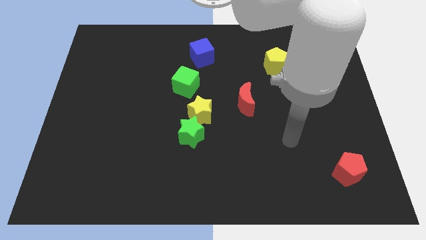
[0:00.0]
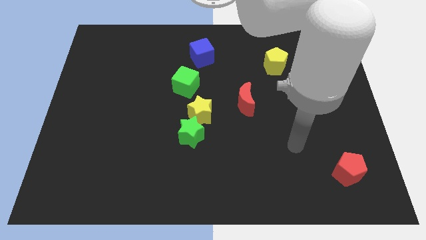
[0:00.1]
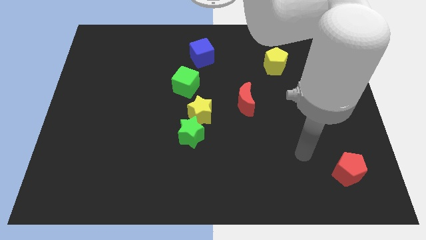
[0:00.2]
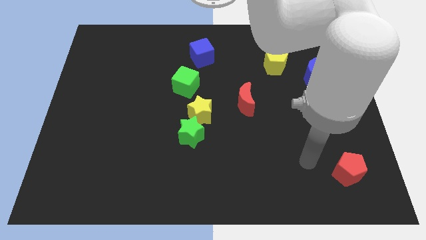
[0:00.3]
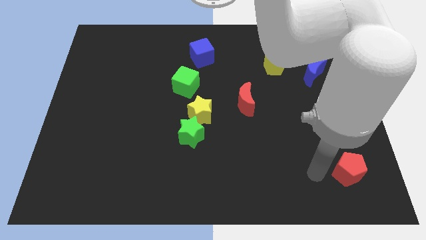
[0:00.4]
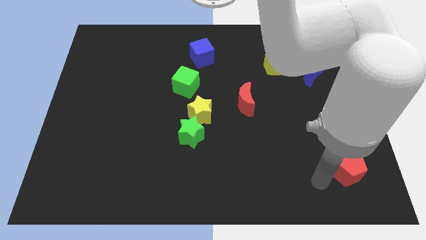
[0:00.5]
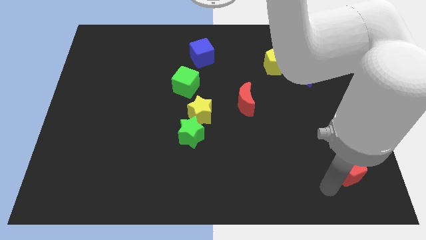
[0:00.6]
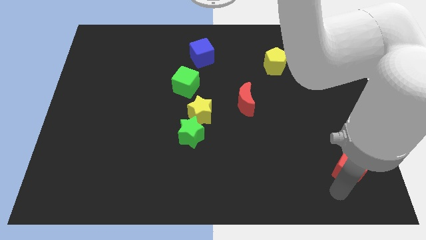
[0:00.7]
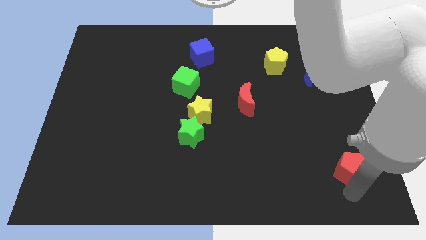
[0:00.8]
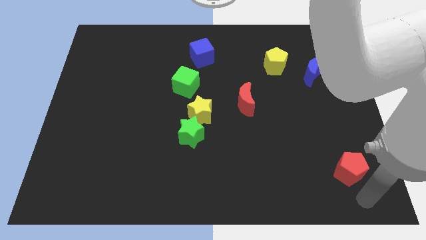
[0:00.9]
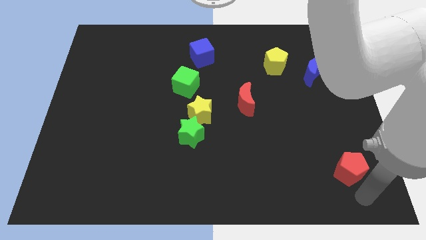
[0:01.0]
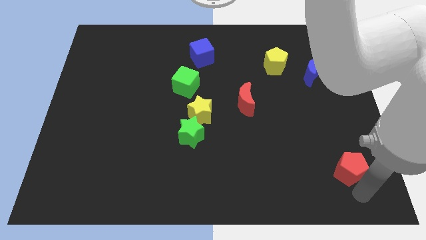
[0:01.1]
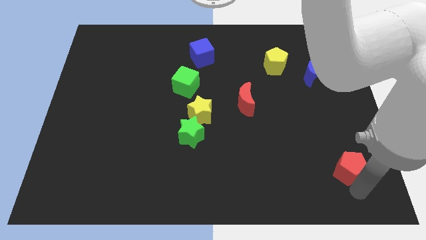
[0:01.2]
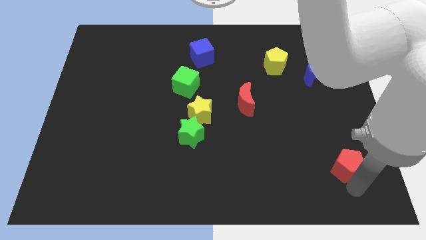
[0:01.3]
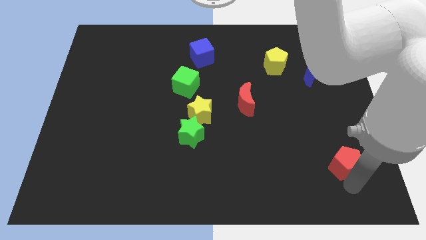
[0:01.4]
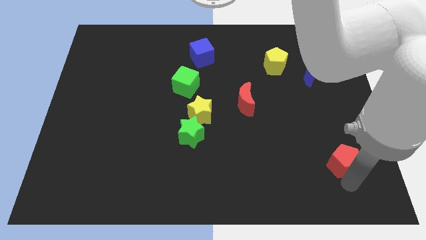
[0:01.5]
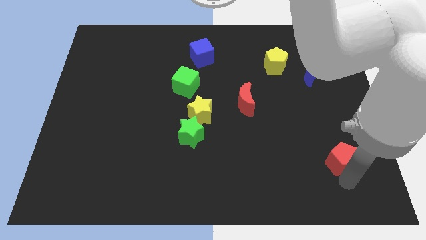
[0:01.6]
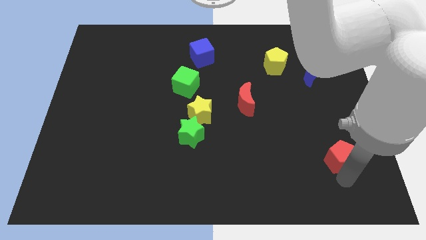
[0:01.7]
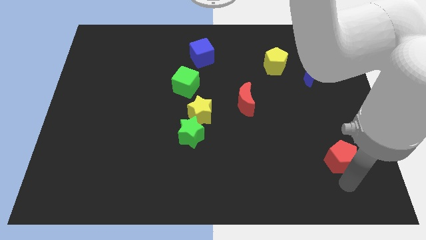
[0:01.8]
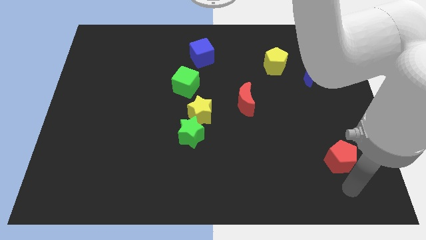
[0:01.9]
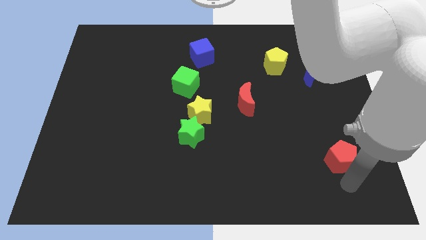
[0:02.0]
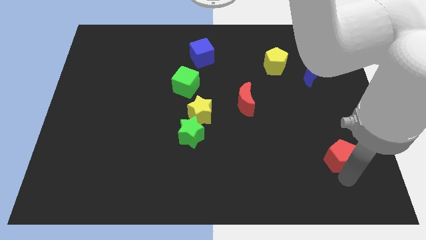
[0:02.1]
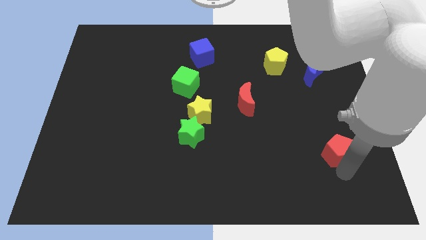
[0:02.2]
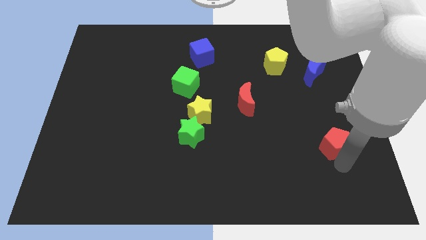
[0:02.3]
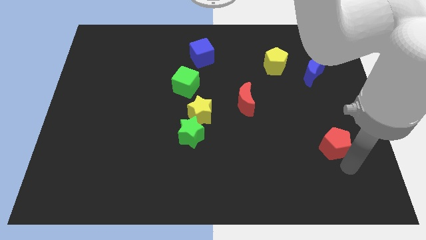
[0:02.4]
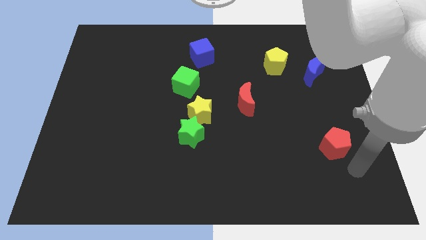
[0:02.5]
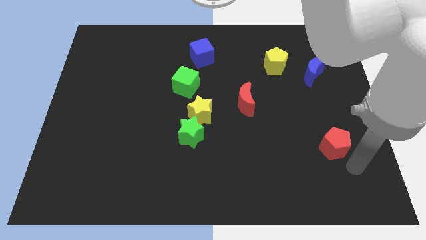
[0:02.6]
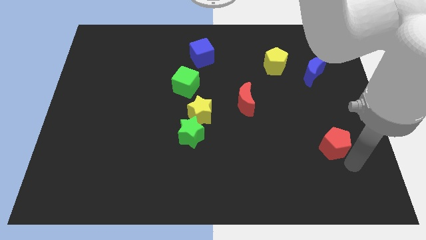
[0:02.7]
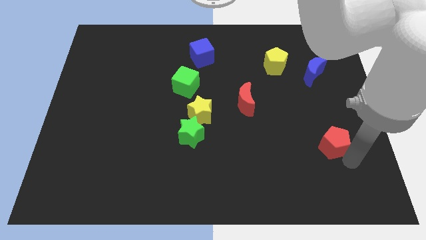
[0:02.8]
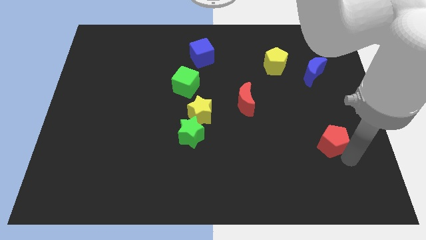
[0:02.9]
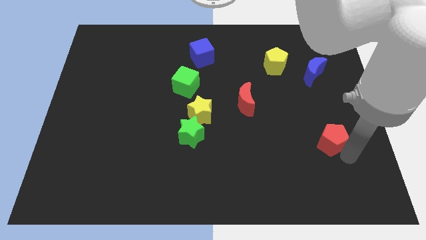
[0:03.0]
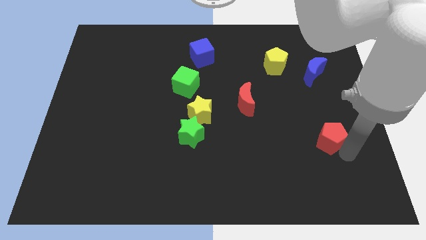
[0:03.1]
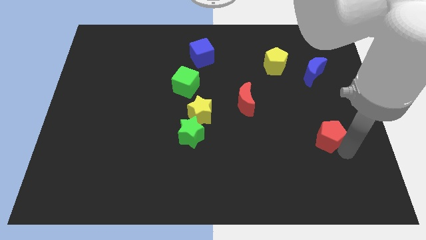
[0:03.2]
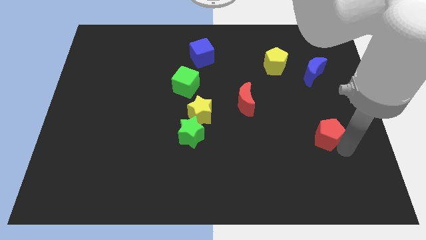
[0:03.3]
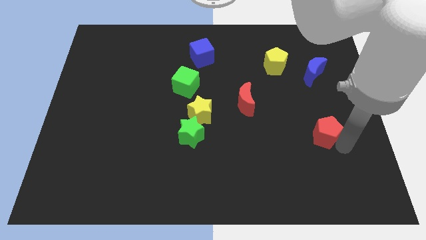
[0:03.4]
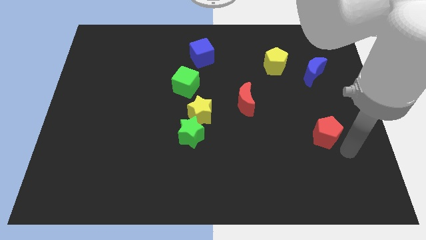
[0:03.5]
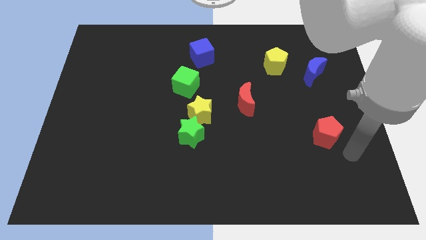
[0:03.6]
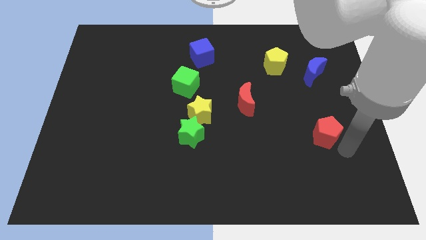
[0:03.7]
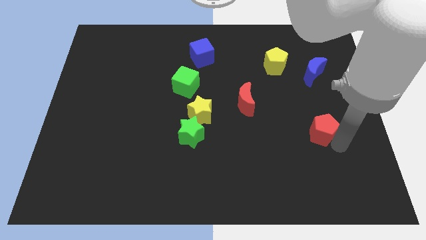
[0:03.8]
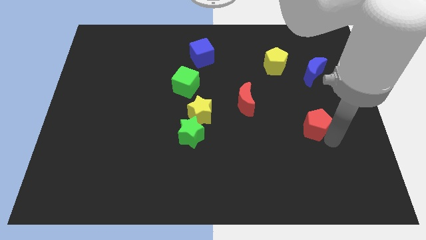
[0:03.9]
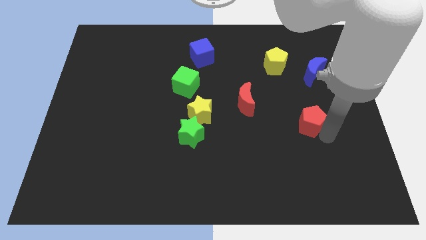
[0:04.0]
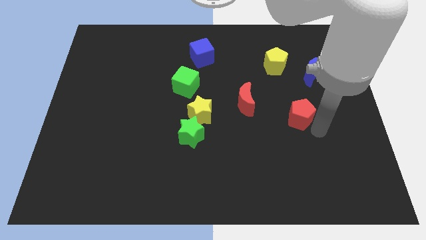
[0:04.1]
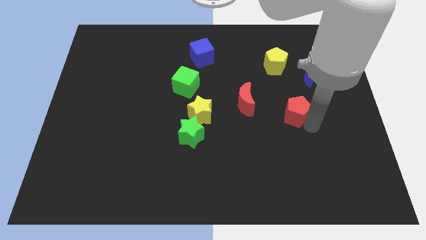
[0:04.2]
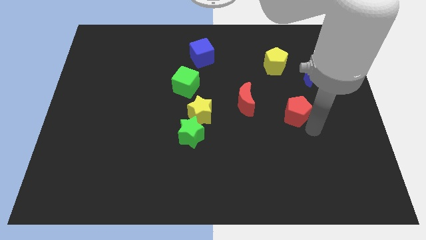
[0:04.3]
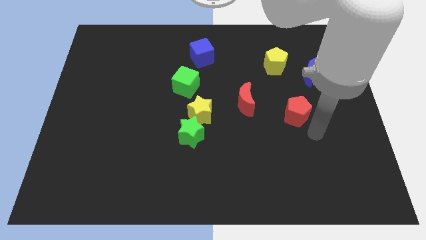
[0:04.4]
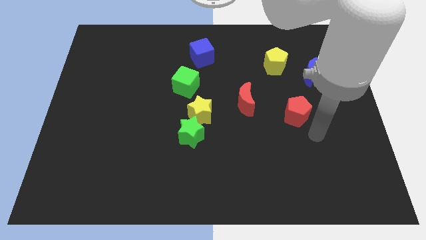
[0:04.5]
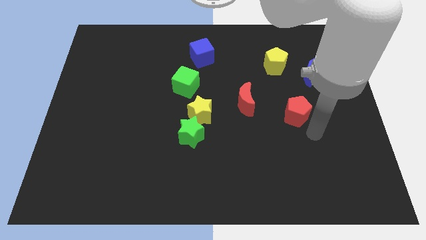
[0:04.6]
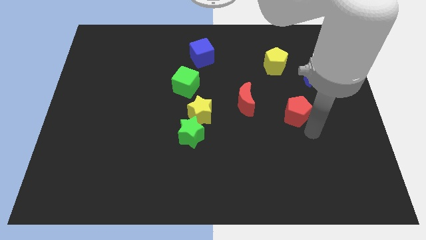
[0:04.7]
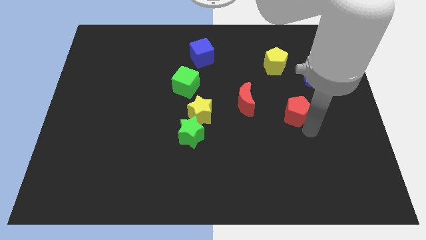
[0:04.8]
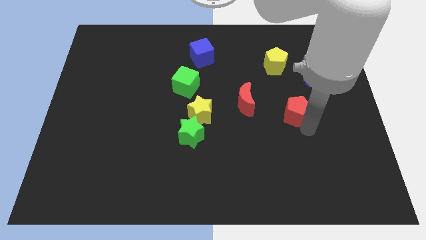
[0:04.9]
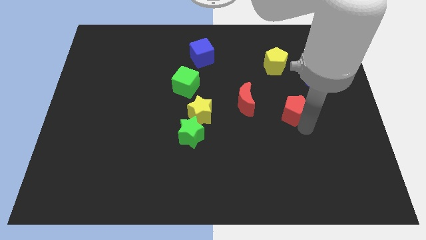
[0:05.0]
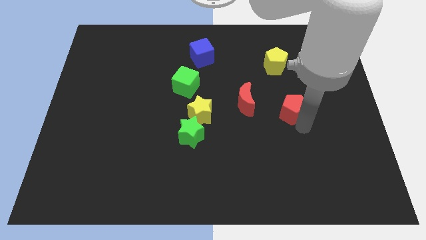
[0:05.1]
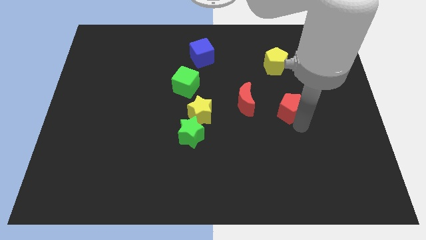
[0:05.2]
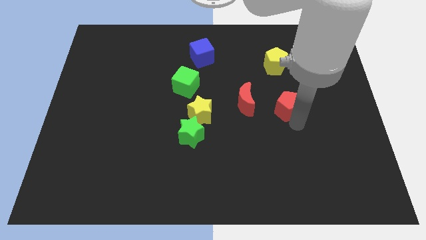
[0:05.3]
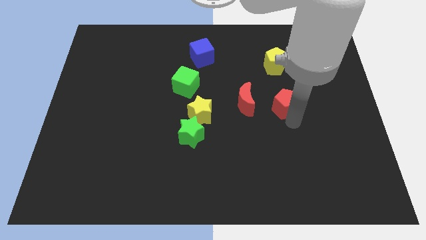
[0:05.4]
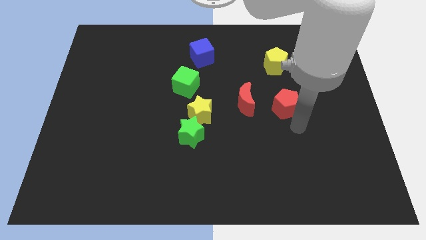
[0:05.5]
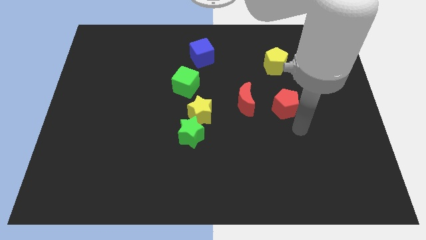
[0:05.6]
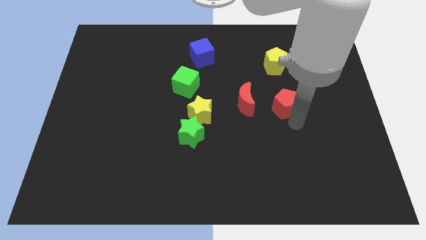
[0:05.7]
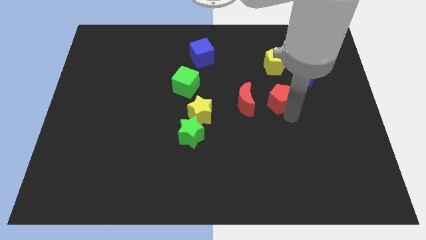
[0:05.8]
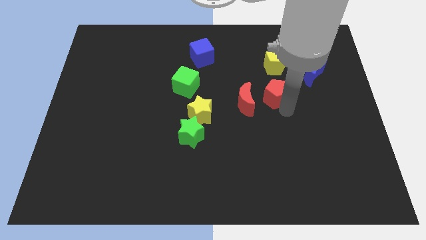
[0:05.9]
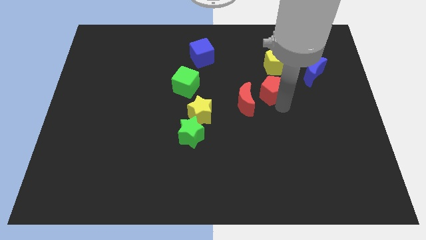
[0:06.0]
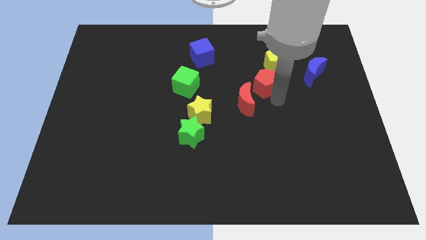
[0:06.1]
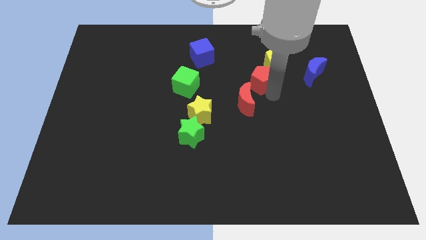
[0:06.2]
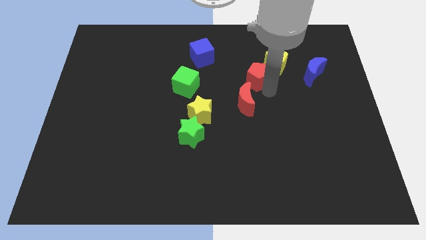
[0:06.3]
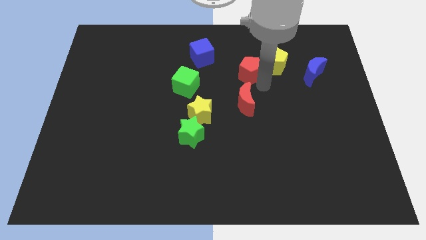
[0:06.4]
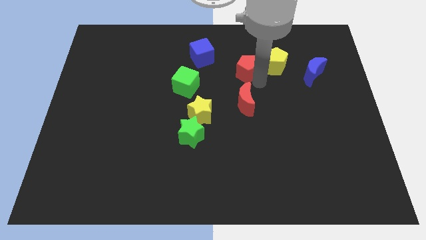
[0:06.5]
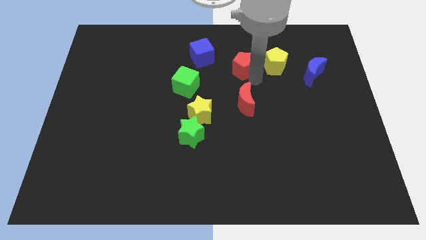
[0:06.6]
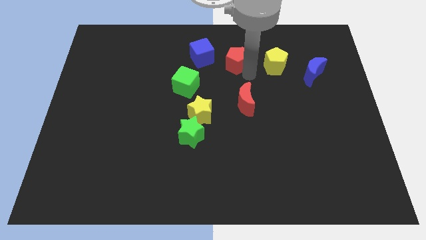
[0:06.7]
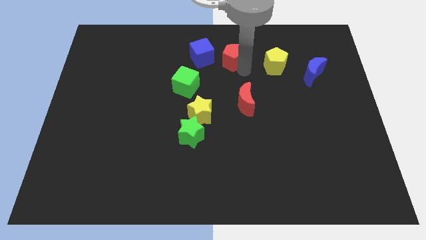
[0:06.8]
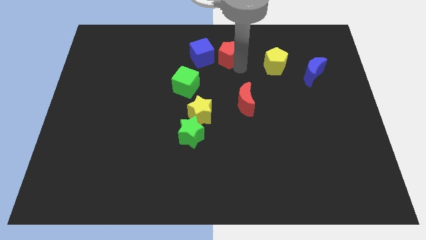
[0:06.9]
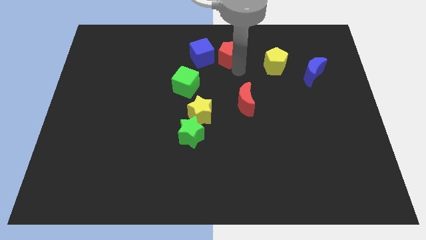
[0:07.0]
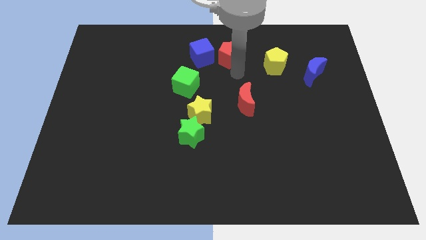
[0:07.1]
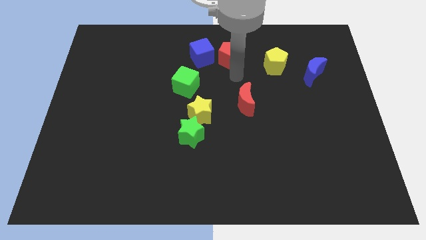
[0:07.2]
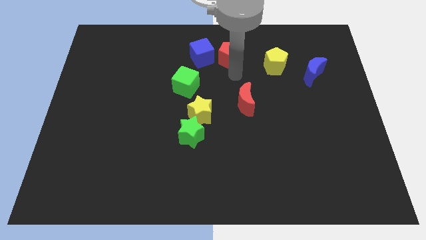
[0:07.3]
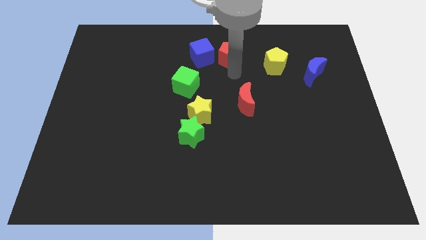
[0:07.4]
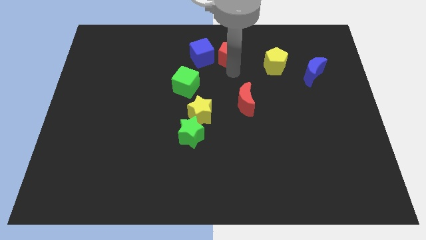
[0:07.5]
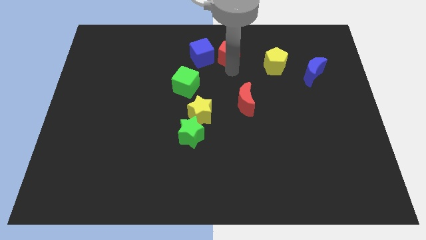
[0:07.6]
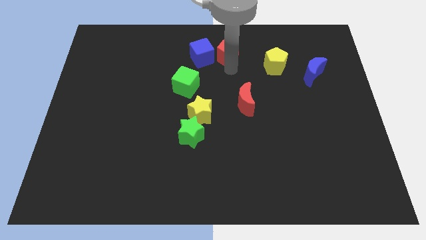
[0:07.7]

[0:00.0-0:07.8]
put the red pentagon to the top
